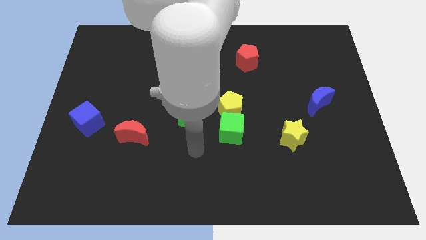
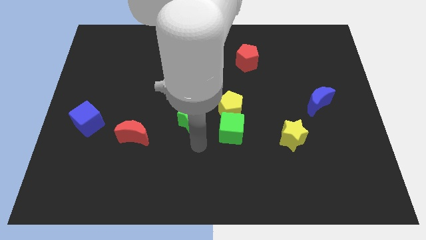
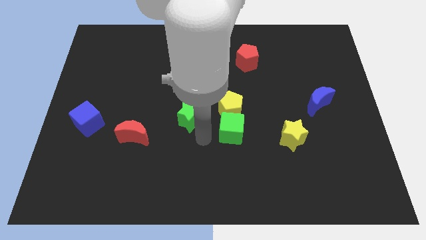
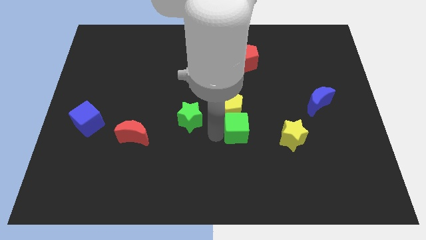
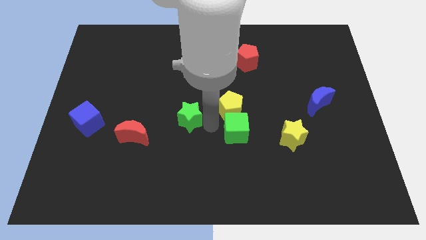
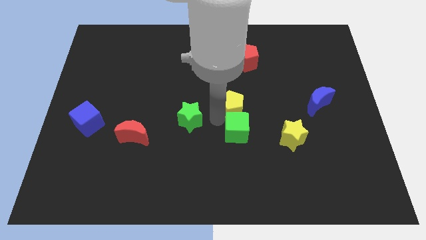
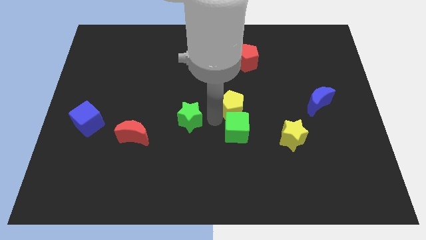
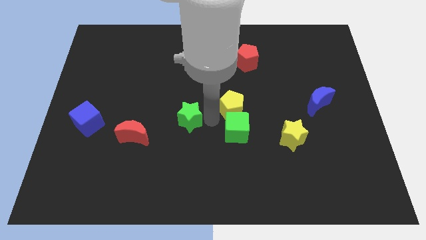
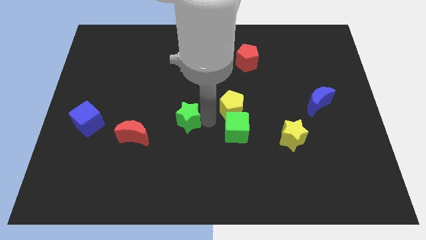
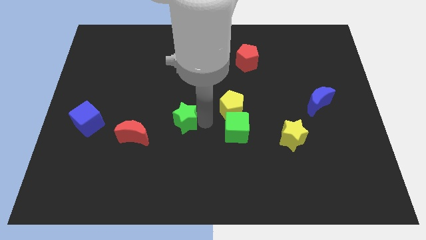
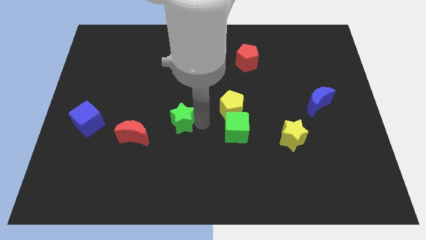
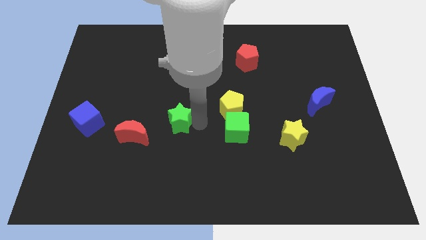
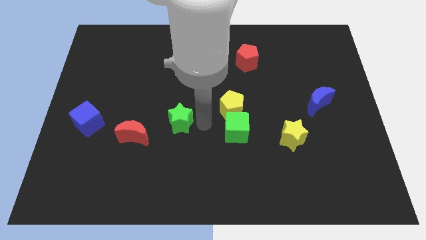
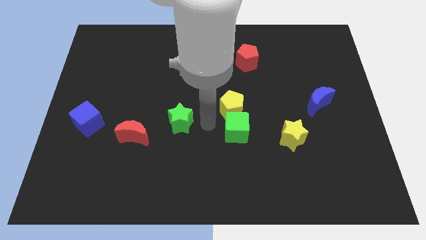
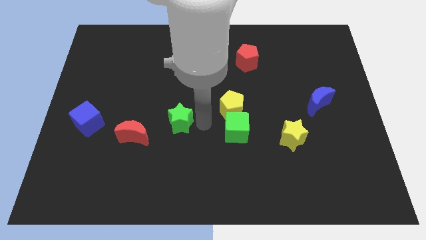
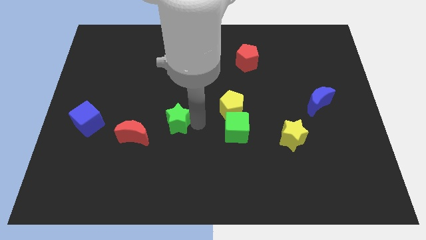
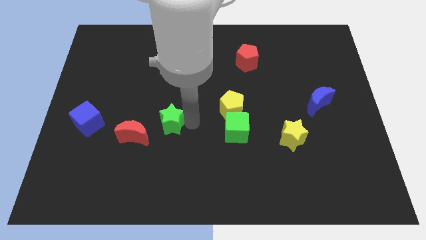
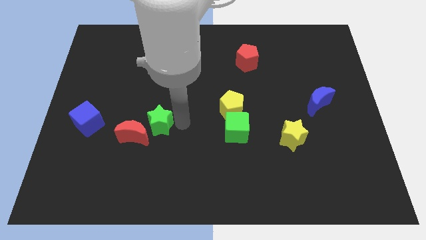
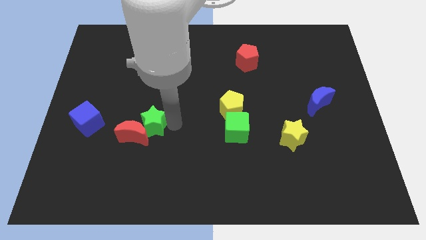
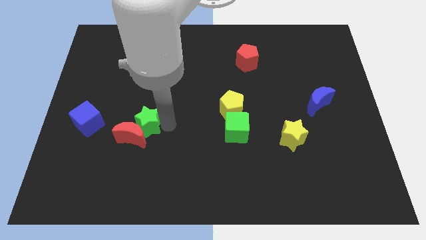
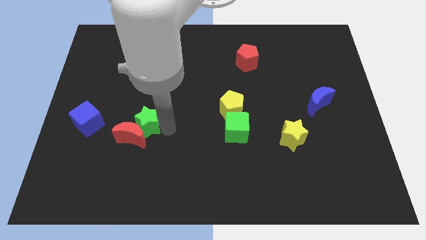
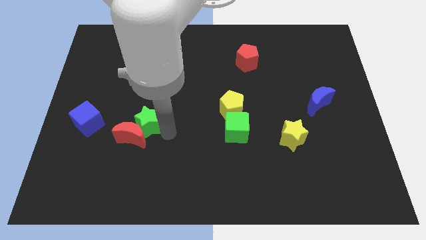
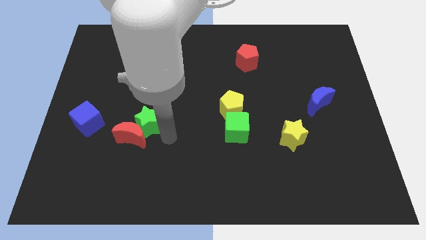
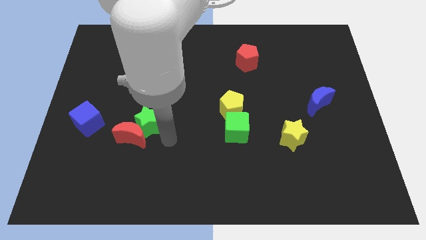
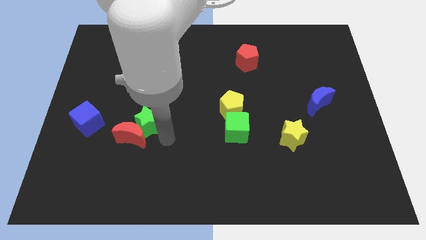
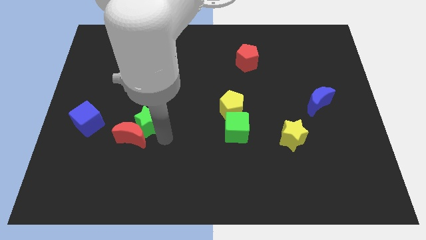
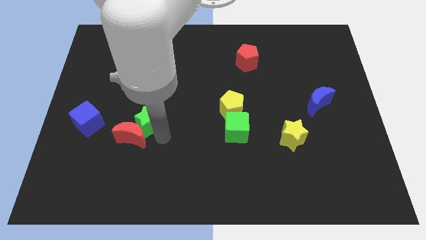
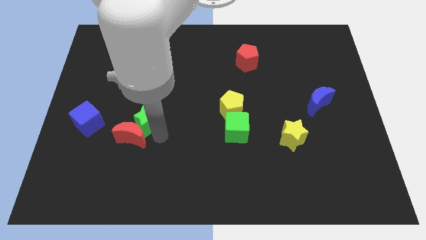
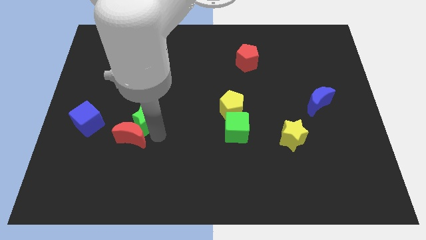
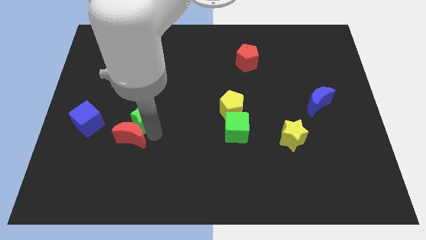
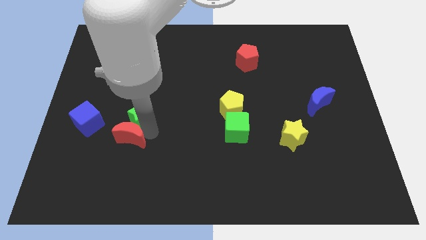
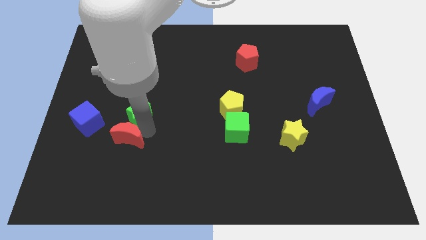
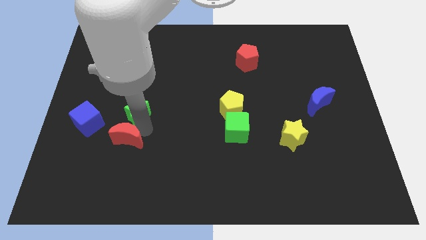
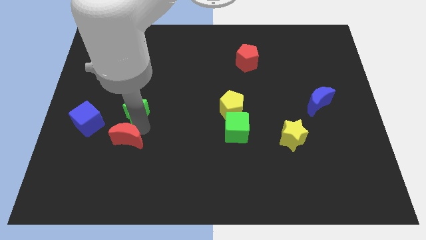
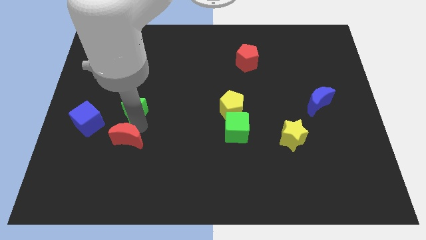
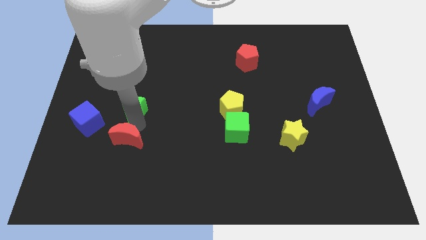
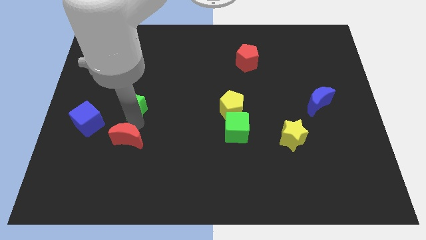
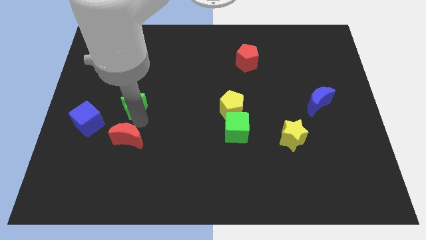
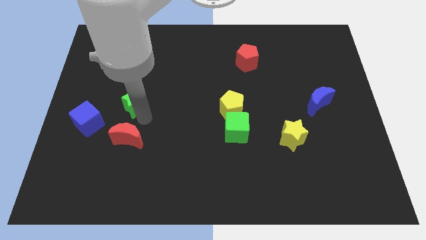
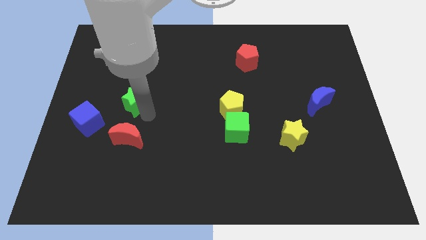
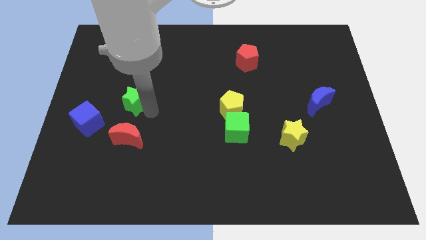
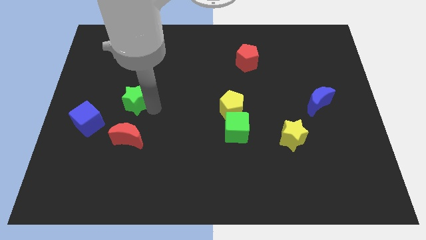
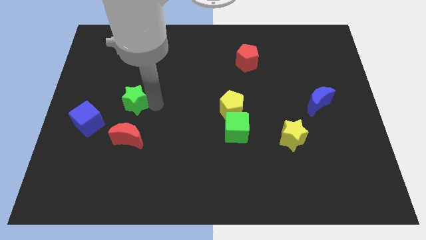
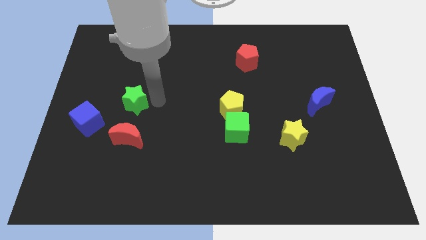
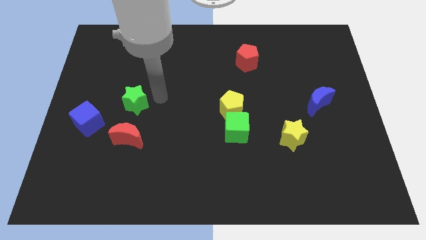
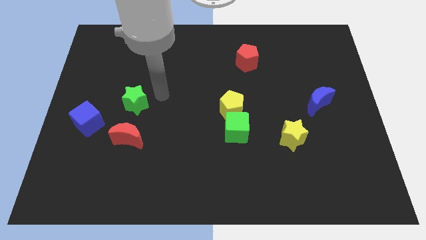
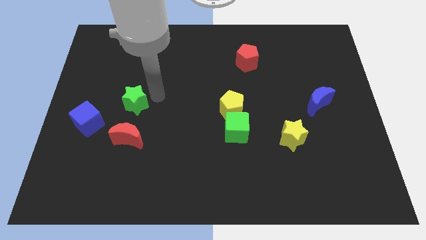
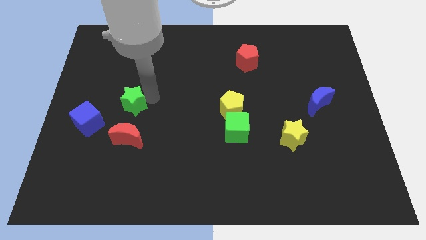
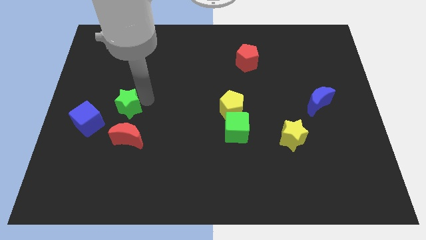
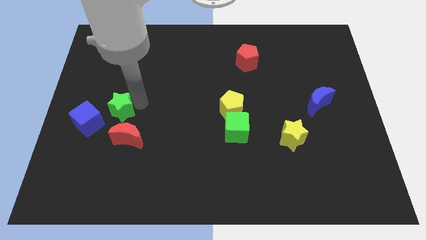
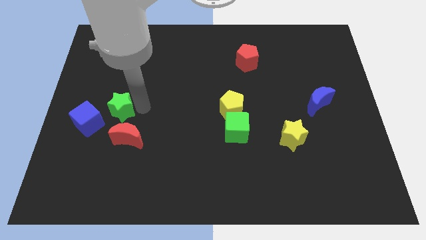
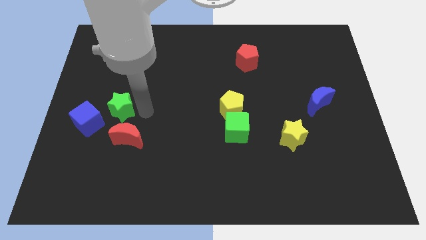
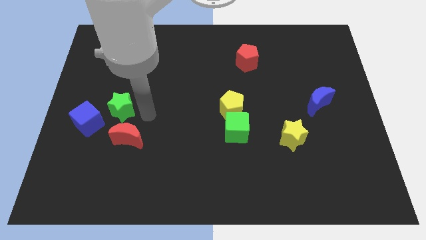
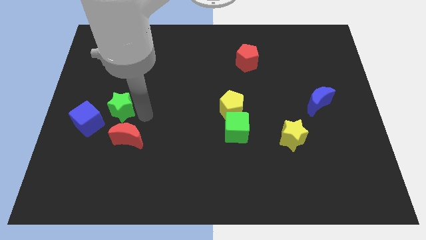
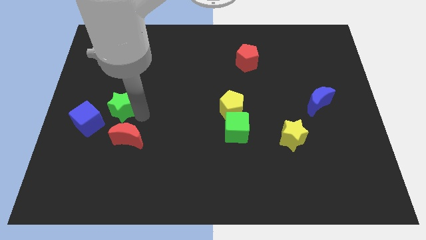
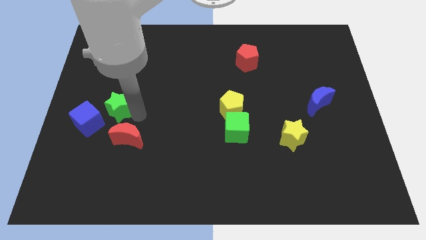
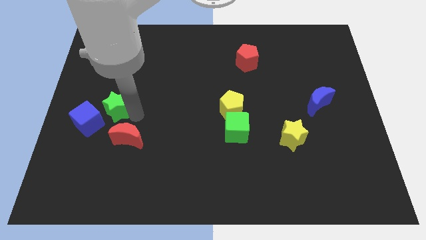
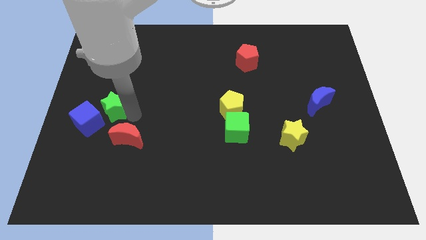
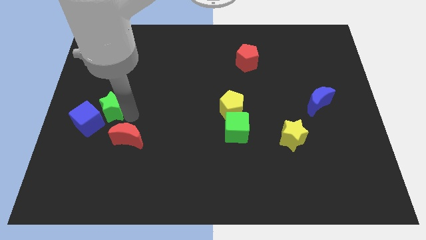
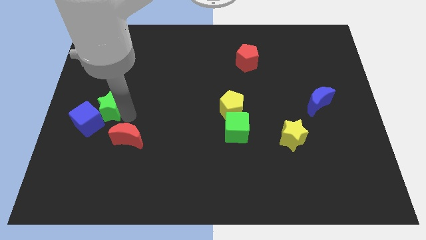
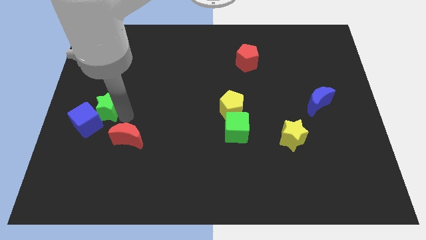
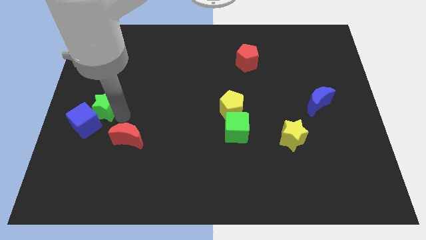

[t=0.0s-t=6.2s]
push the green star to the left side of the board
